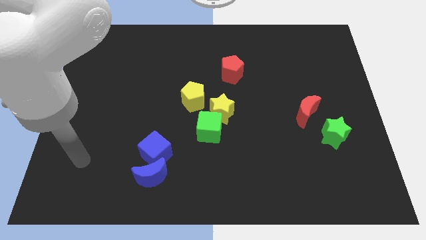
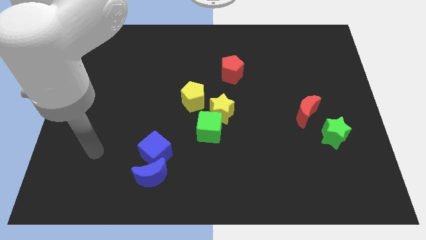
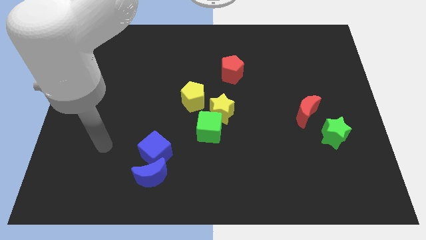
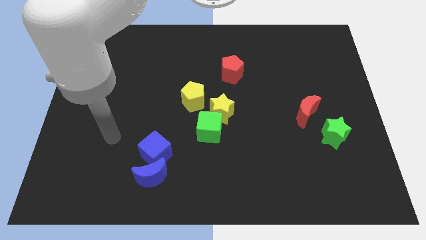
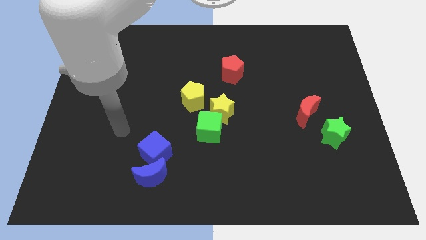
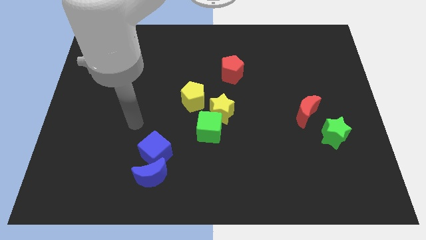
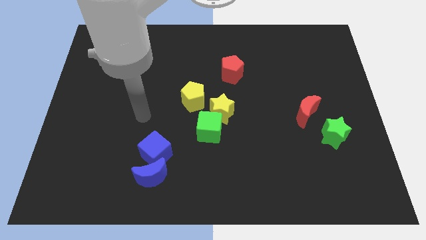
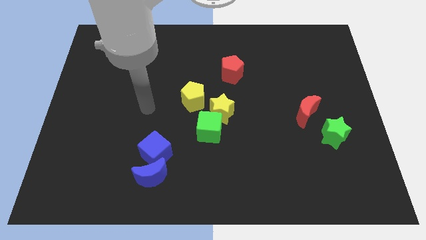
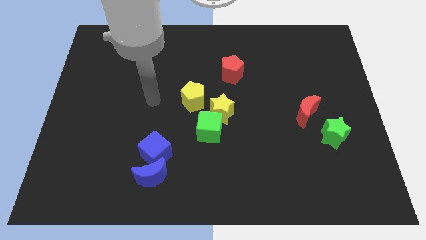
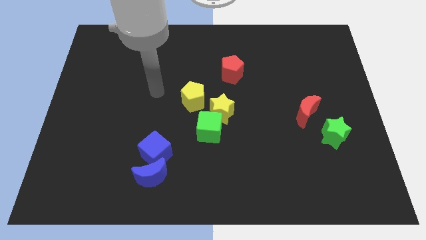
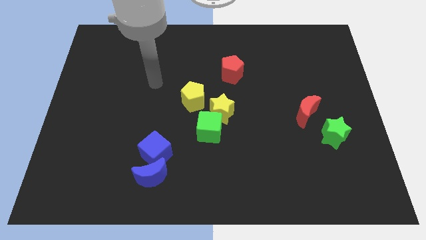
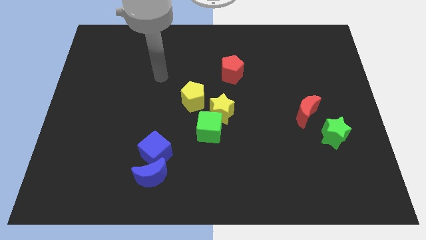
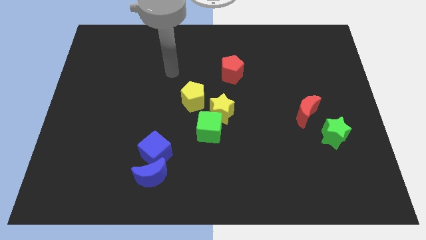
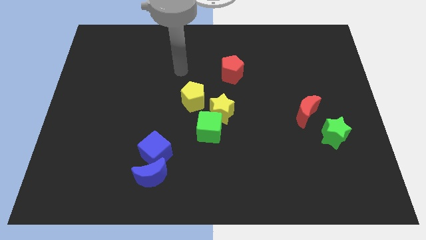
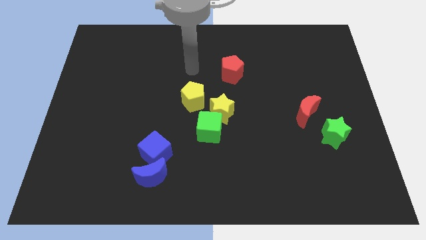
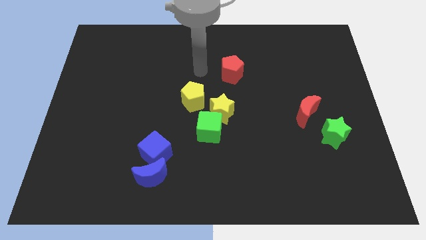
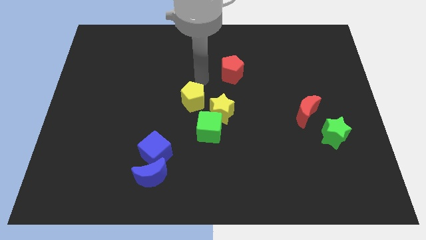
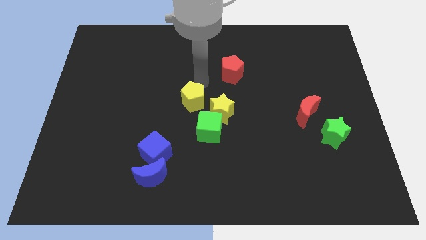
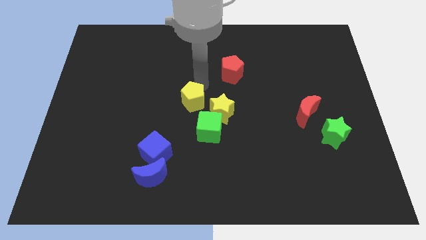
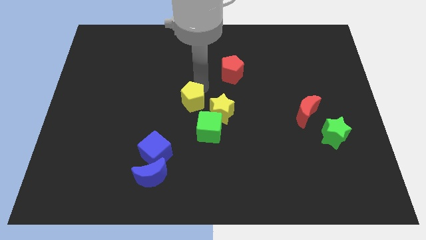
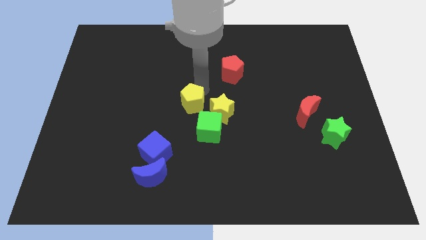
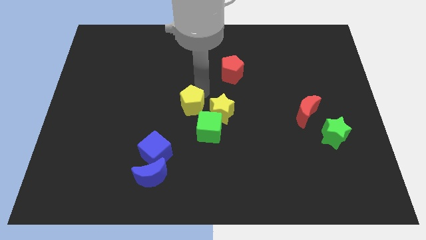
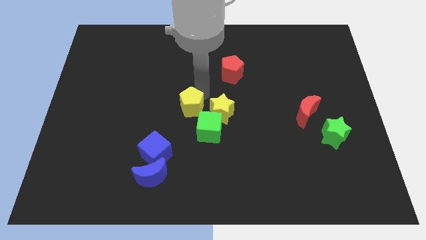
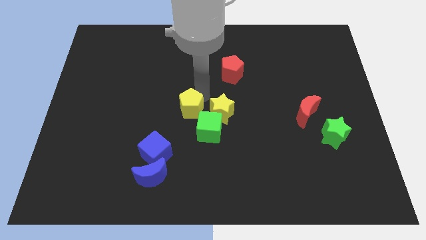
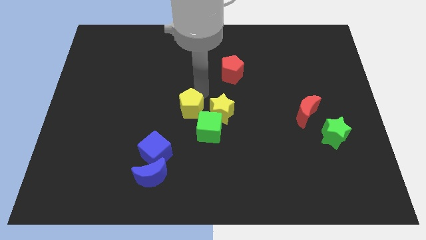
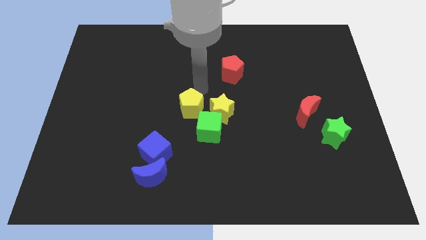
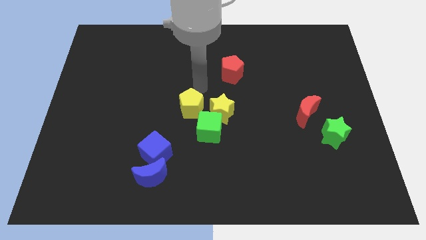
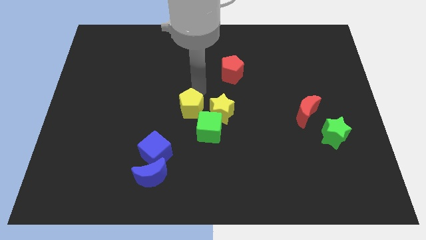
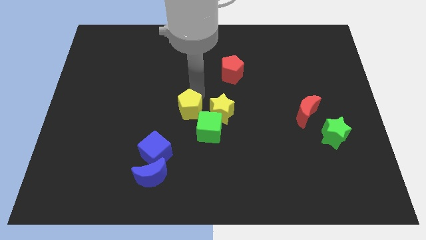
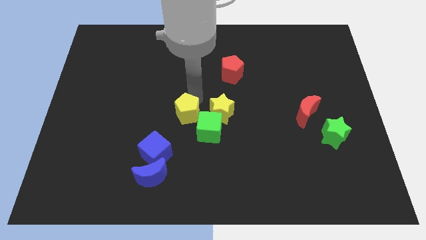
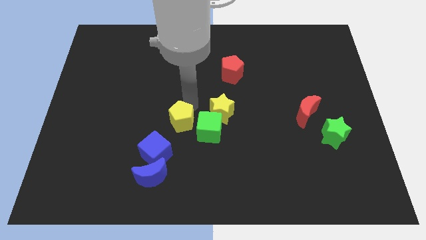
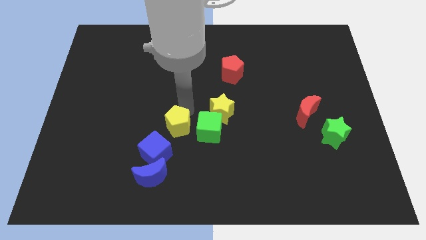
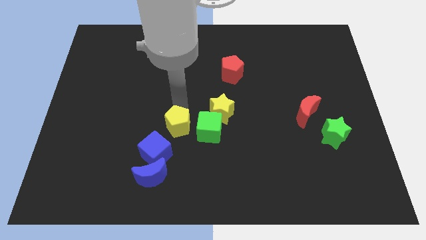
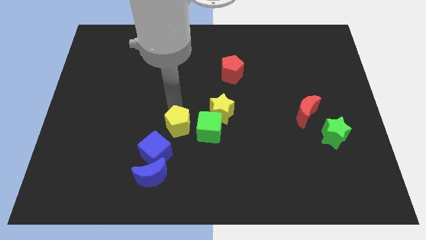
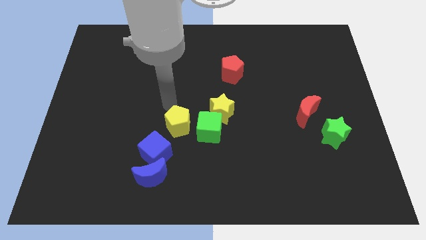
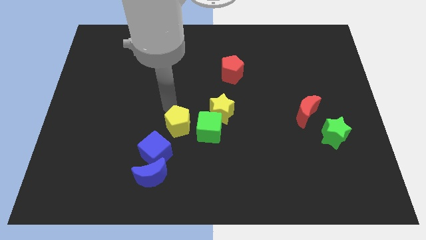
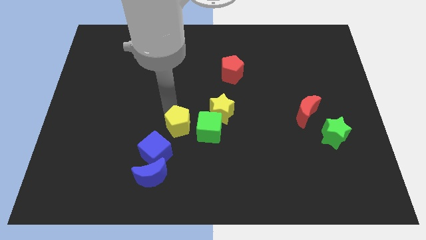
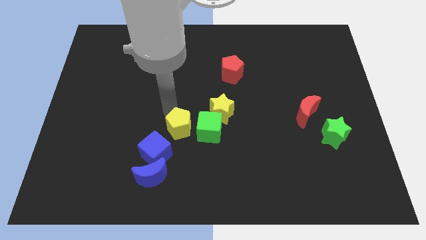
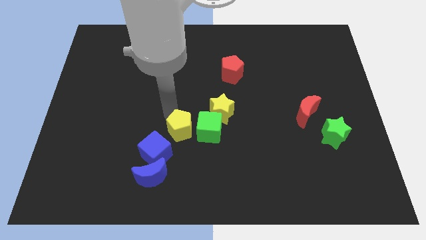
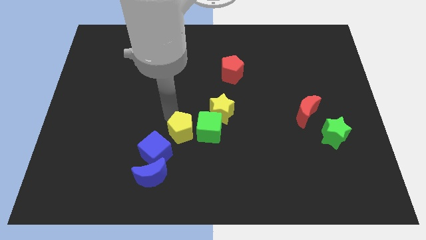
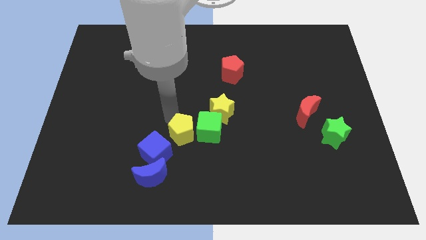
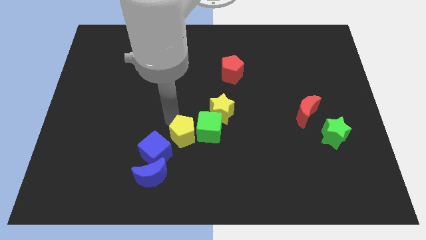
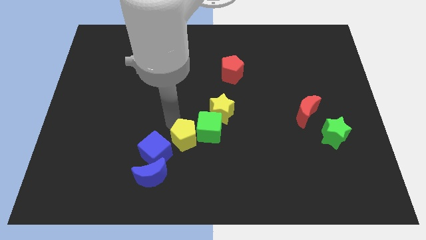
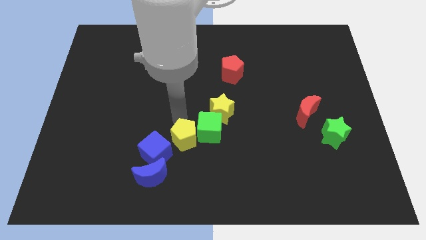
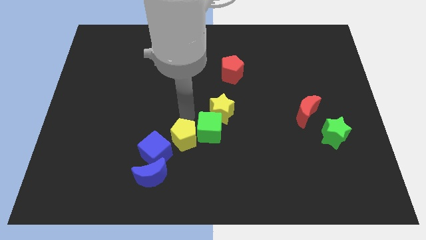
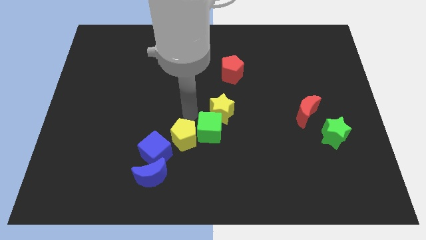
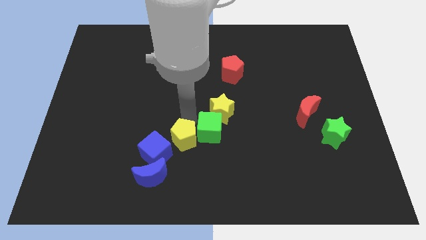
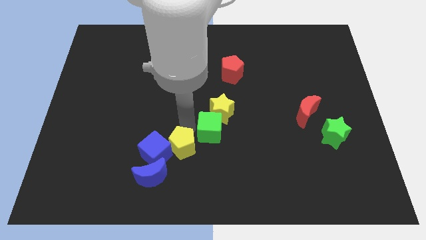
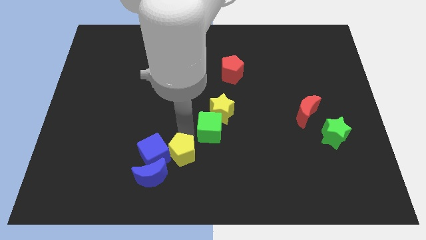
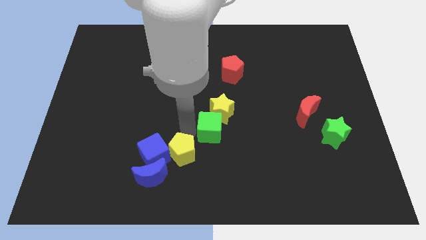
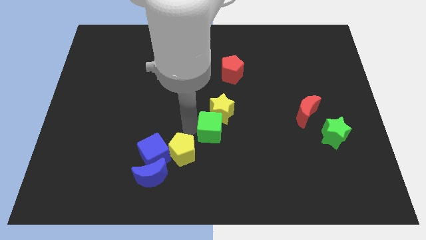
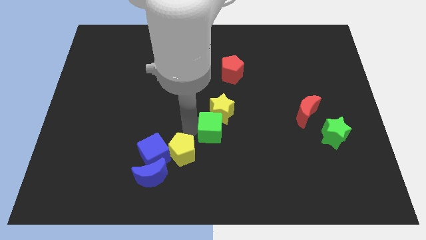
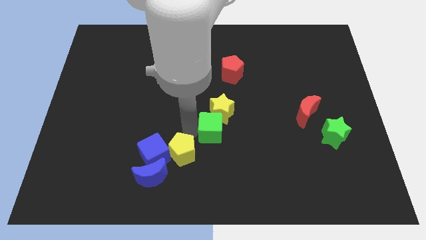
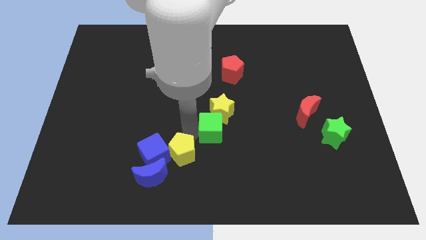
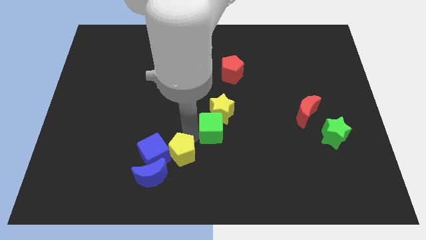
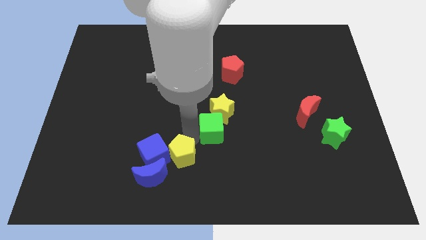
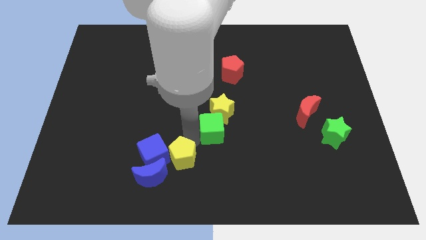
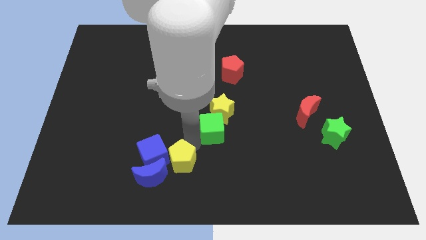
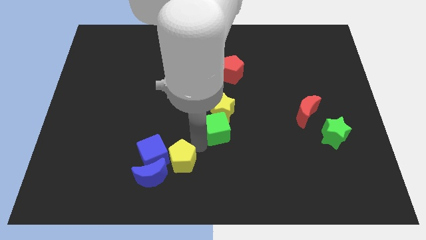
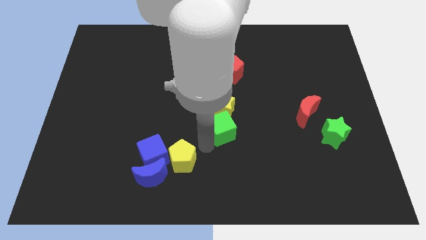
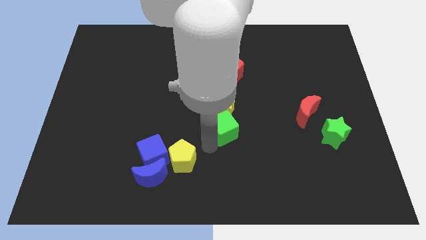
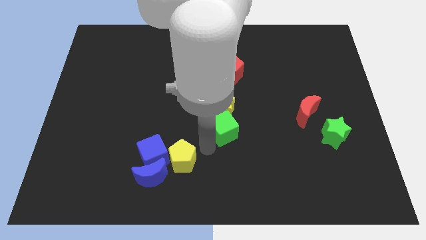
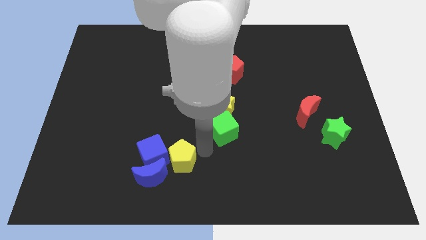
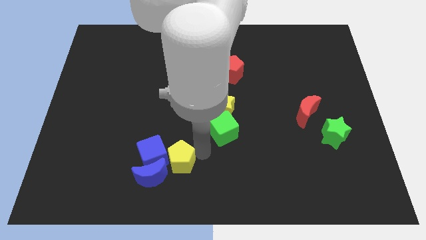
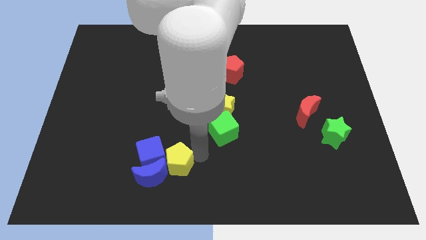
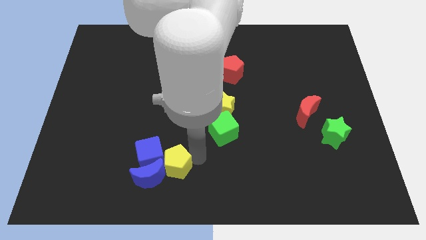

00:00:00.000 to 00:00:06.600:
push the yellow pentagon towards the blue moon

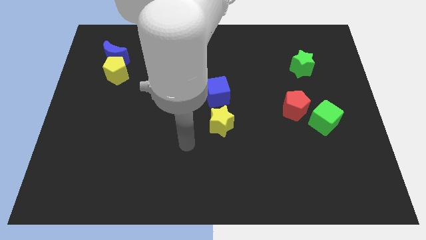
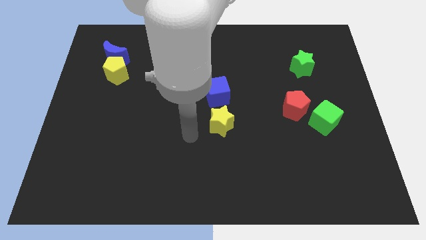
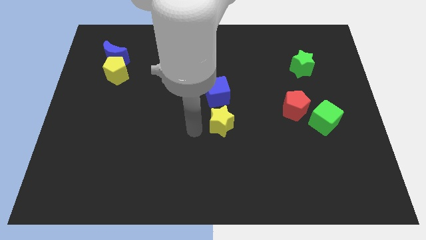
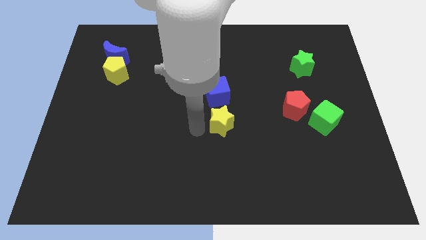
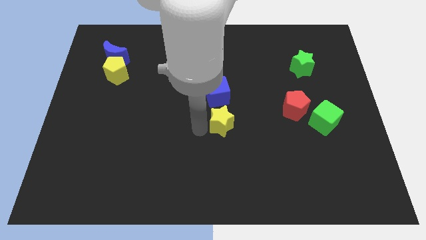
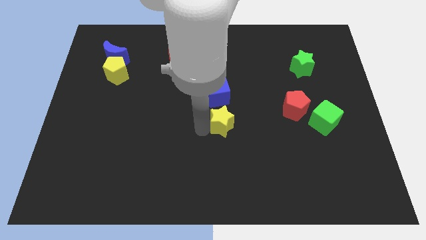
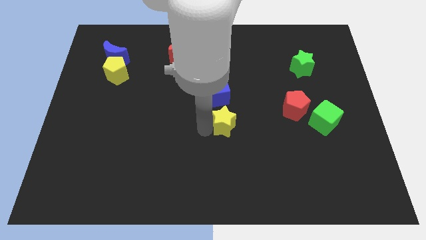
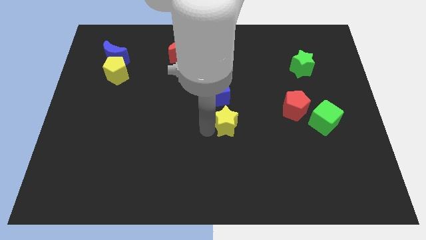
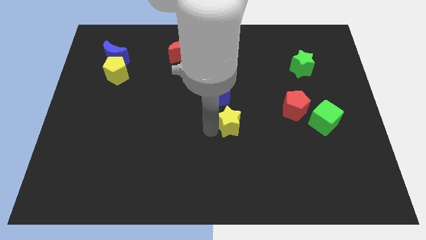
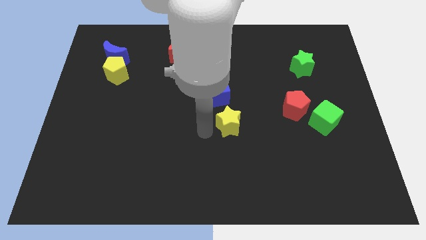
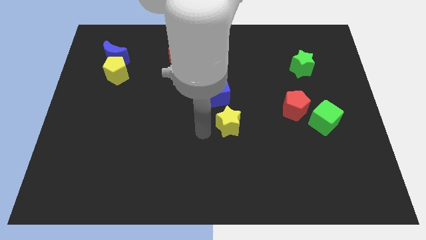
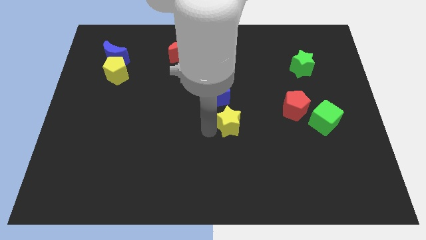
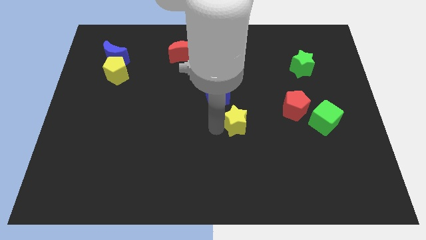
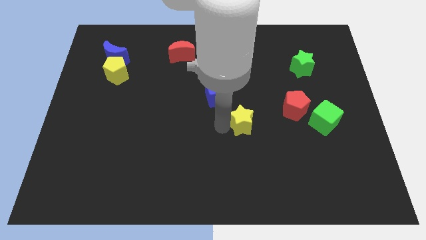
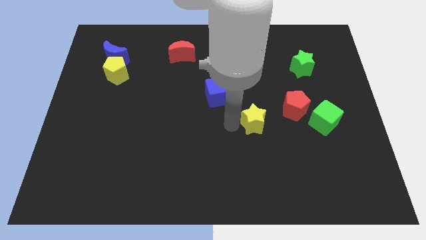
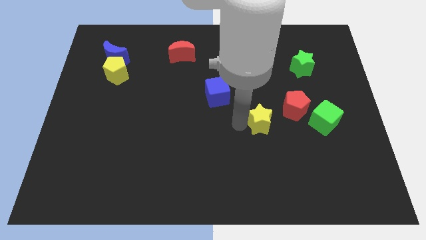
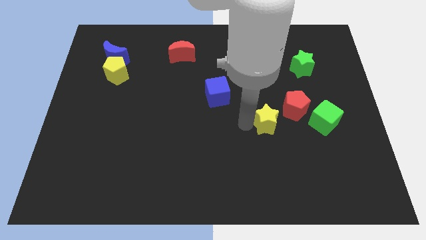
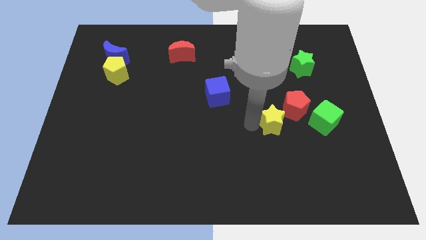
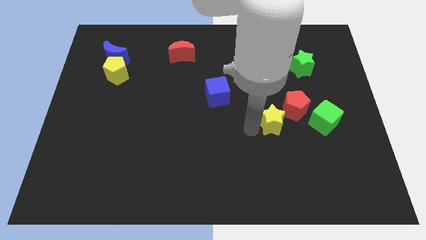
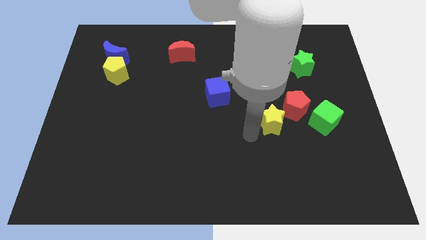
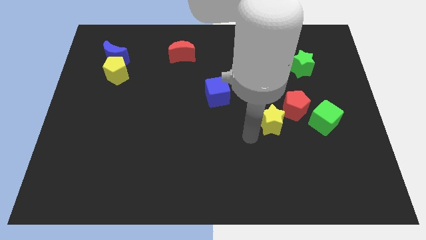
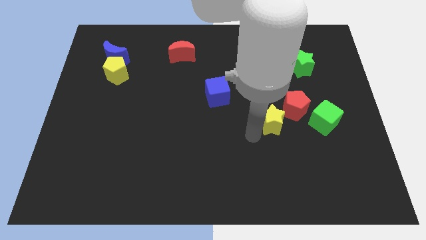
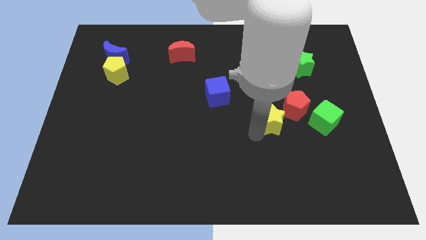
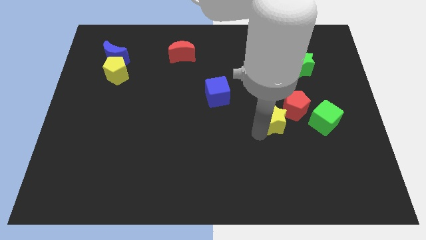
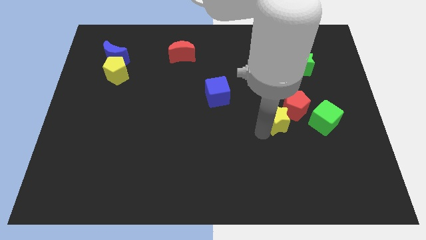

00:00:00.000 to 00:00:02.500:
put the yellow star to the red pentagon
